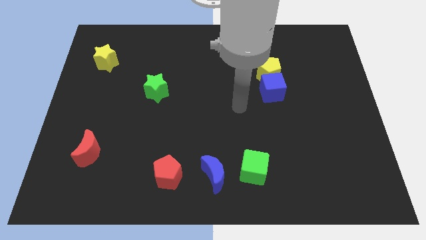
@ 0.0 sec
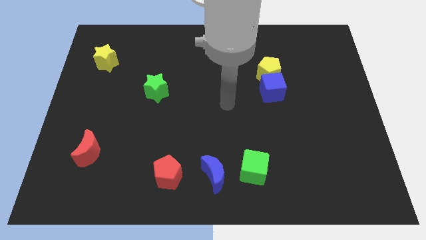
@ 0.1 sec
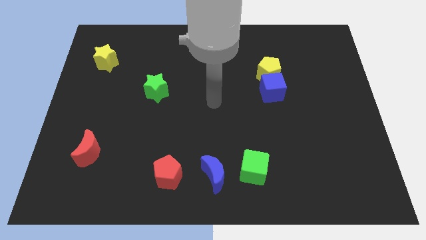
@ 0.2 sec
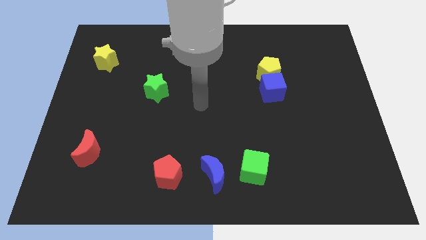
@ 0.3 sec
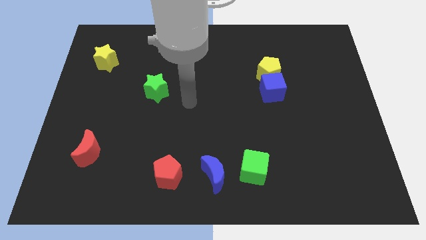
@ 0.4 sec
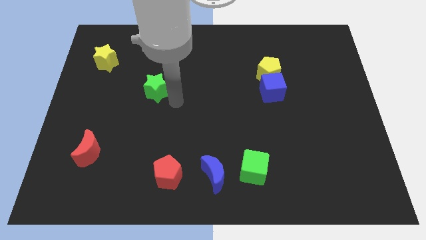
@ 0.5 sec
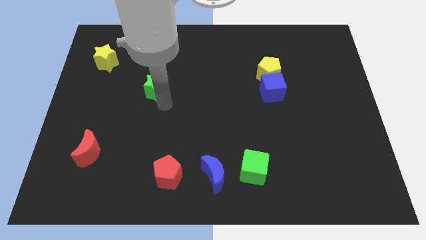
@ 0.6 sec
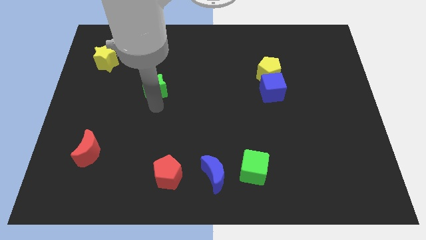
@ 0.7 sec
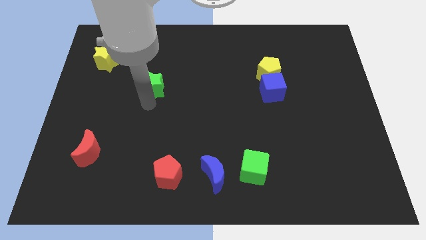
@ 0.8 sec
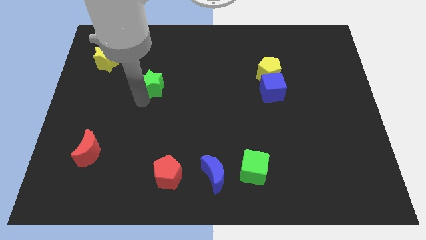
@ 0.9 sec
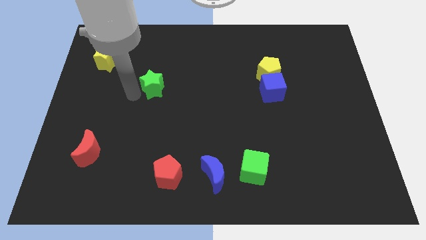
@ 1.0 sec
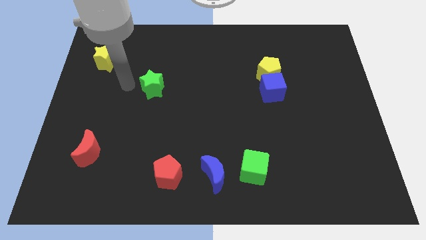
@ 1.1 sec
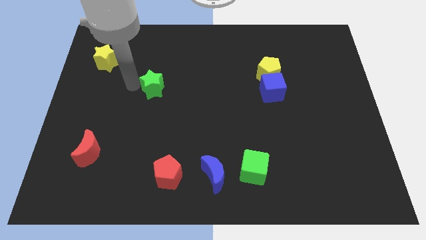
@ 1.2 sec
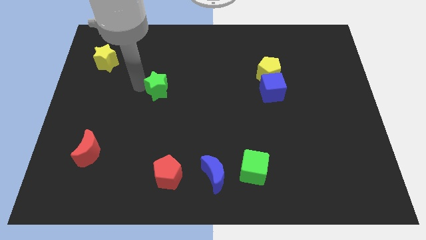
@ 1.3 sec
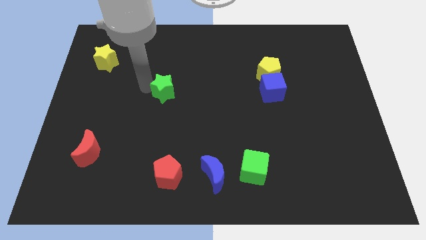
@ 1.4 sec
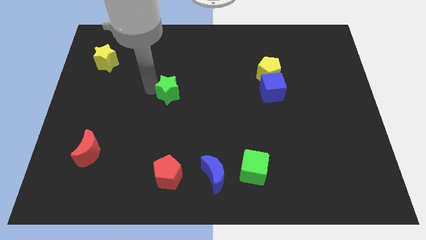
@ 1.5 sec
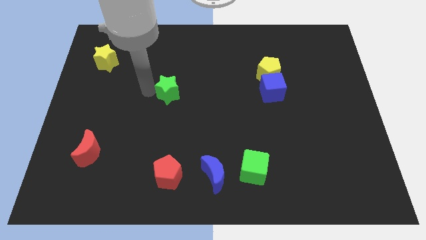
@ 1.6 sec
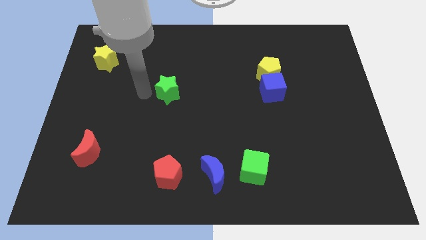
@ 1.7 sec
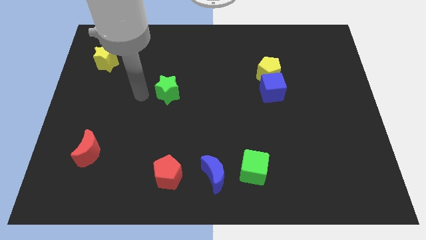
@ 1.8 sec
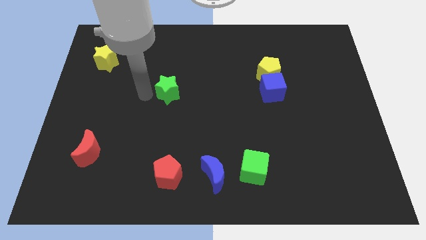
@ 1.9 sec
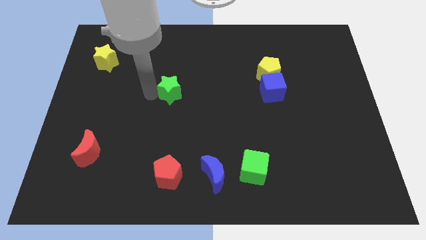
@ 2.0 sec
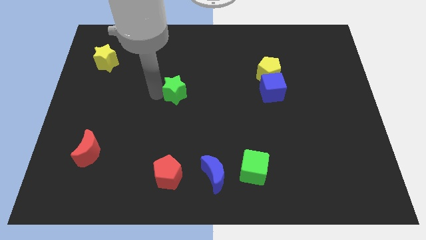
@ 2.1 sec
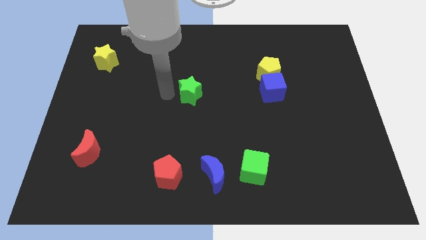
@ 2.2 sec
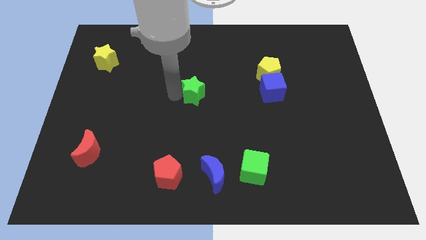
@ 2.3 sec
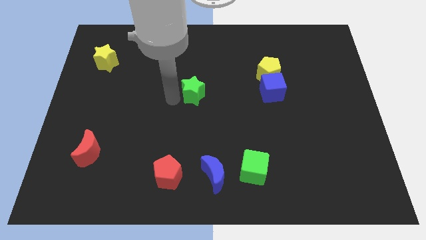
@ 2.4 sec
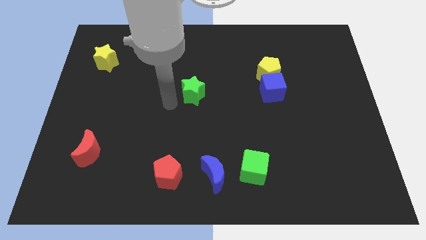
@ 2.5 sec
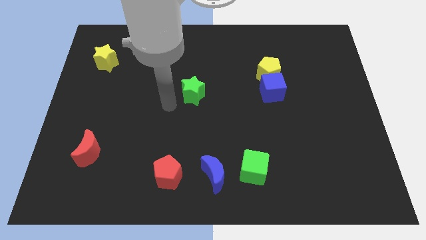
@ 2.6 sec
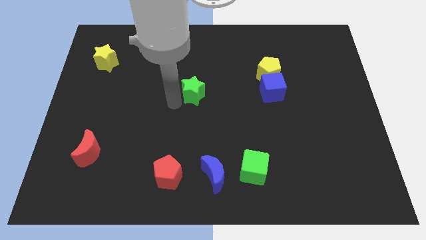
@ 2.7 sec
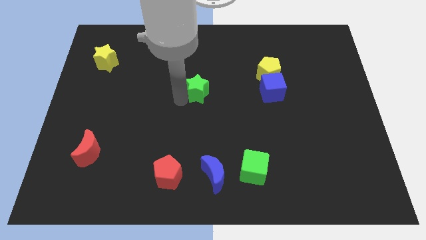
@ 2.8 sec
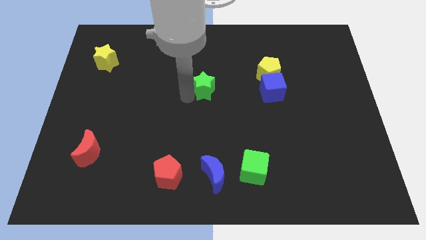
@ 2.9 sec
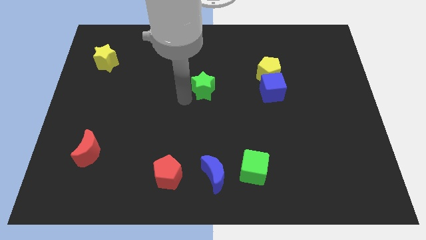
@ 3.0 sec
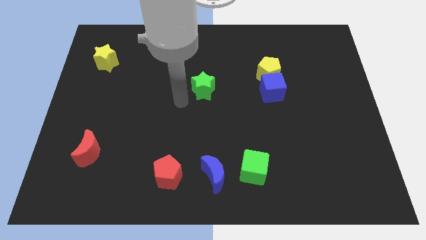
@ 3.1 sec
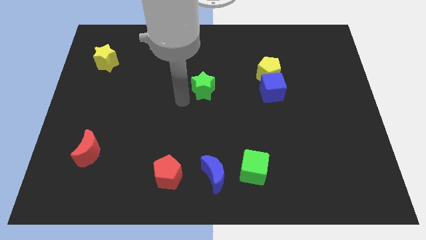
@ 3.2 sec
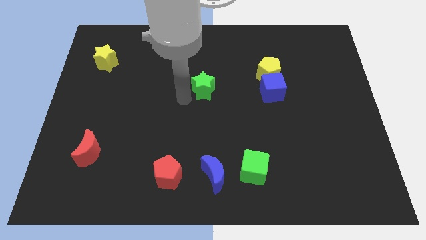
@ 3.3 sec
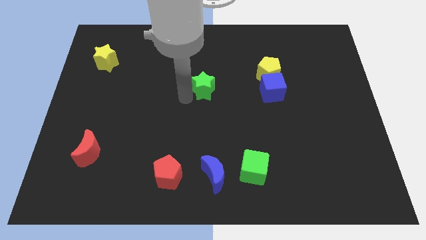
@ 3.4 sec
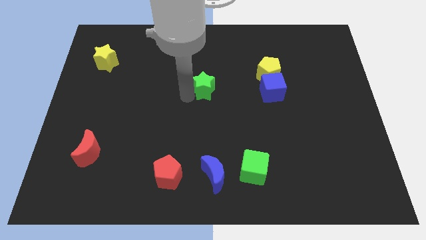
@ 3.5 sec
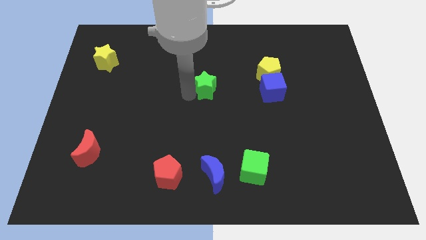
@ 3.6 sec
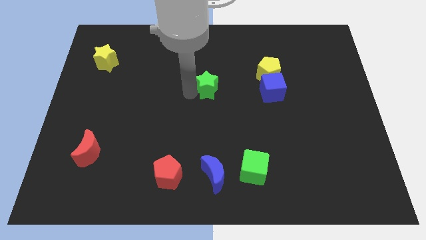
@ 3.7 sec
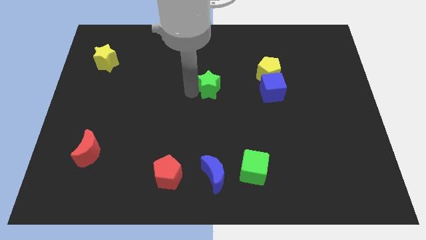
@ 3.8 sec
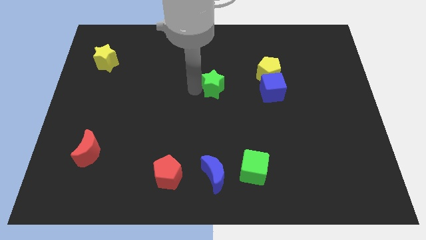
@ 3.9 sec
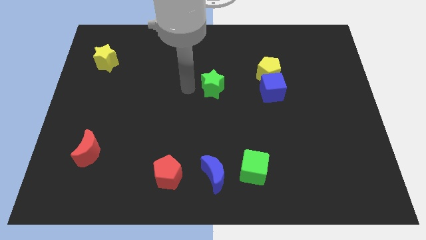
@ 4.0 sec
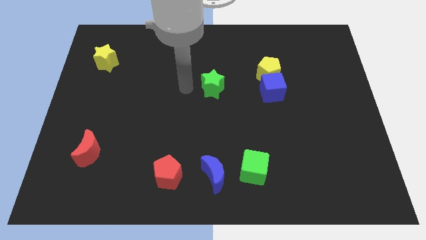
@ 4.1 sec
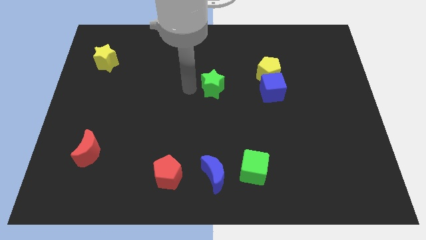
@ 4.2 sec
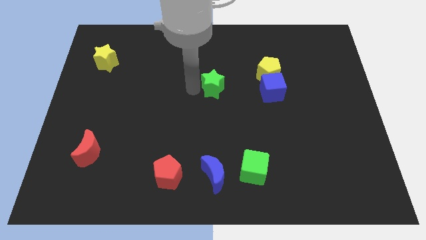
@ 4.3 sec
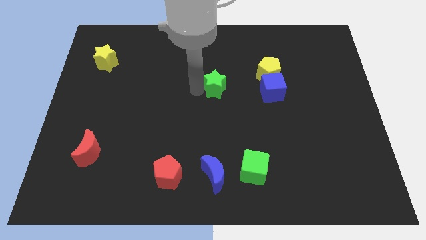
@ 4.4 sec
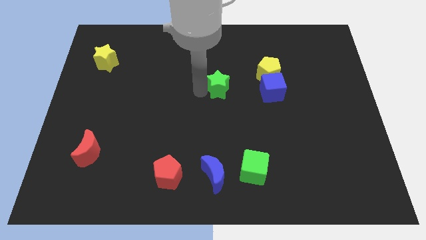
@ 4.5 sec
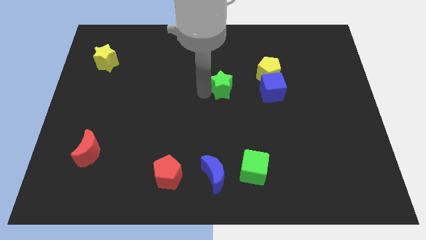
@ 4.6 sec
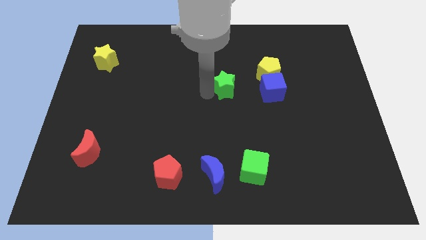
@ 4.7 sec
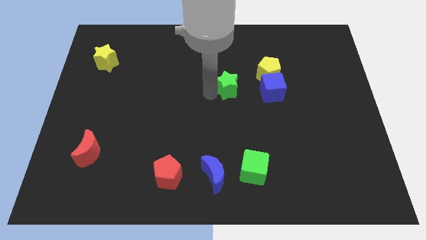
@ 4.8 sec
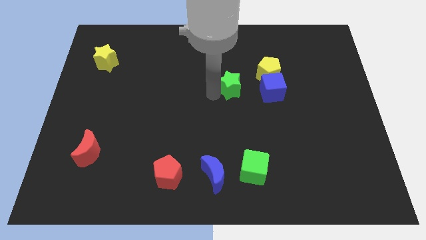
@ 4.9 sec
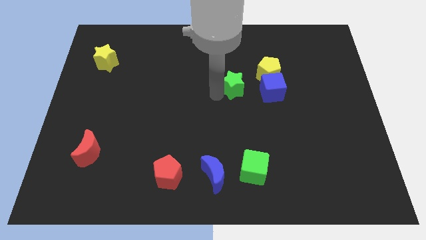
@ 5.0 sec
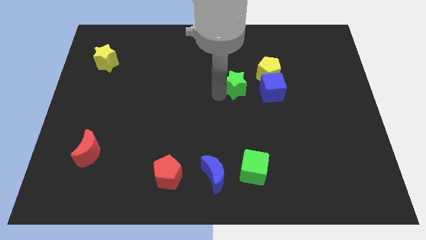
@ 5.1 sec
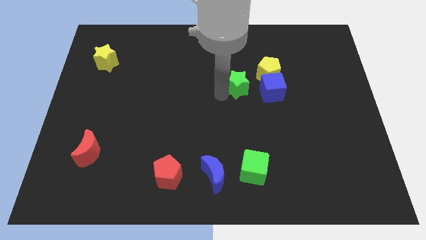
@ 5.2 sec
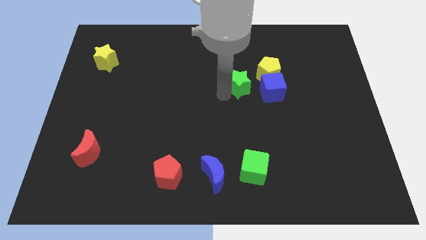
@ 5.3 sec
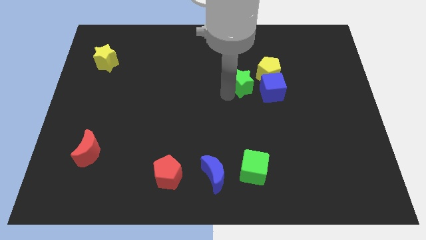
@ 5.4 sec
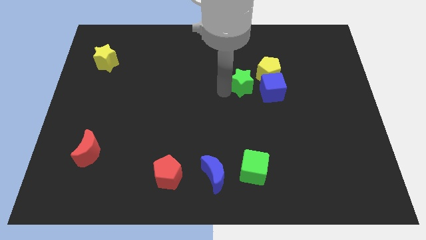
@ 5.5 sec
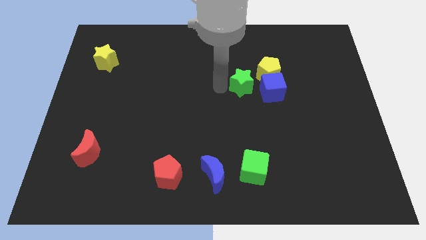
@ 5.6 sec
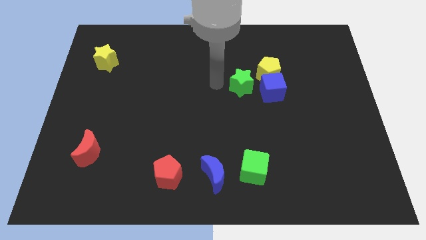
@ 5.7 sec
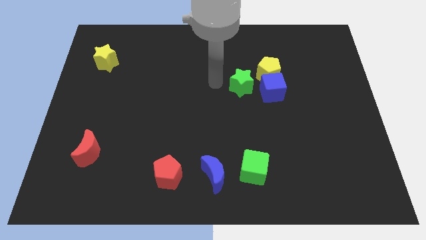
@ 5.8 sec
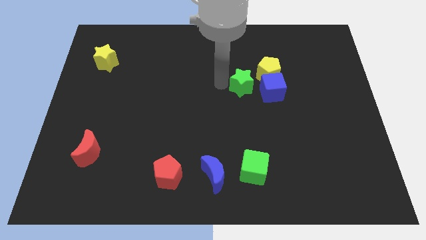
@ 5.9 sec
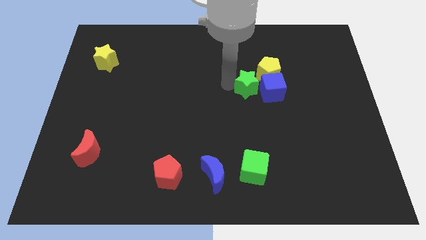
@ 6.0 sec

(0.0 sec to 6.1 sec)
move the green star close to the blue cube

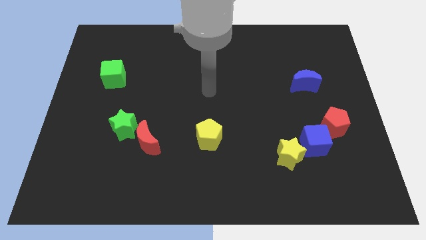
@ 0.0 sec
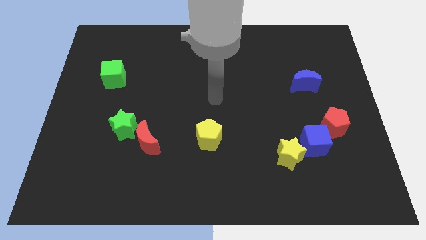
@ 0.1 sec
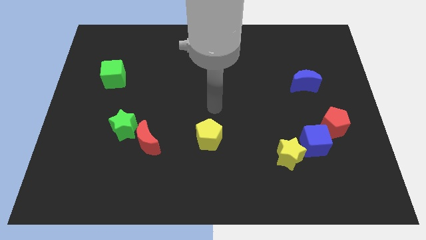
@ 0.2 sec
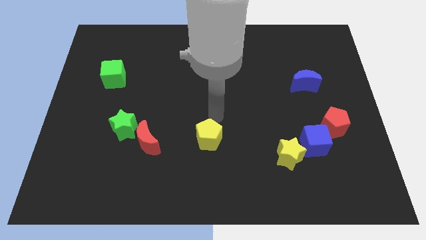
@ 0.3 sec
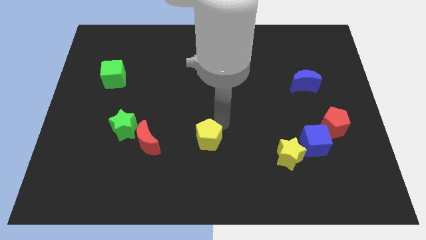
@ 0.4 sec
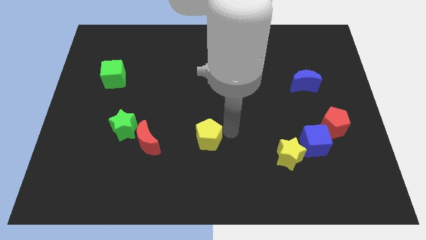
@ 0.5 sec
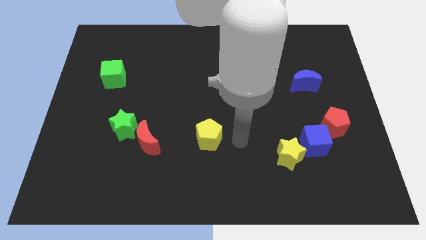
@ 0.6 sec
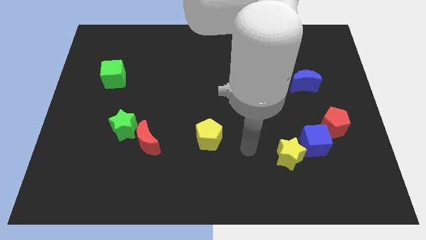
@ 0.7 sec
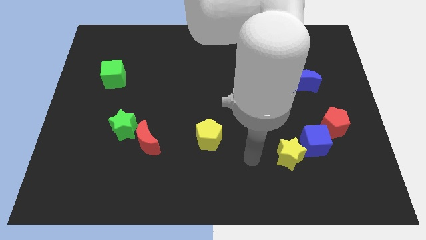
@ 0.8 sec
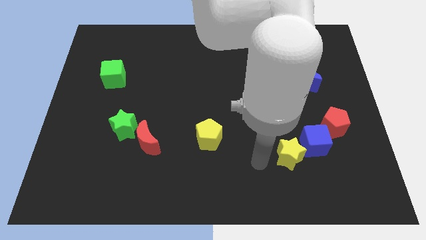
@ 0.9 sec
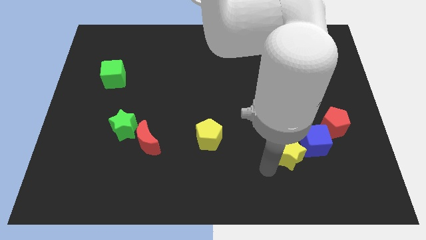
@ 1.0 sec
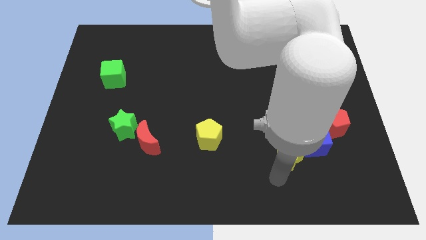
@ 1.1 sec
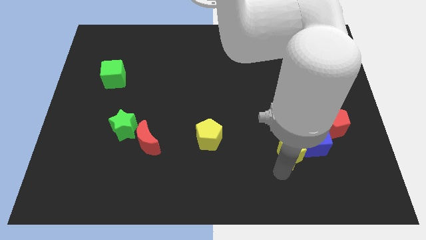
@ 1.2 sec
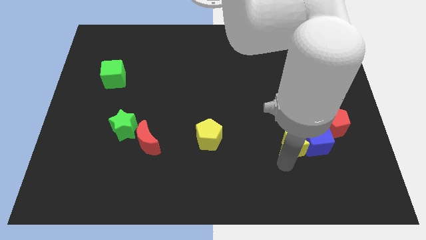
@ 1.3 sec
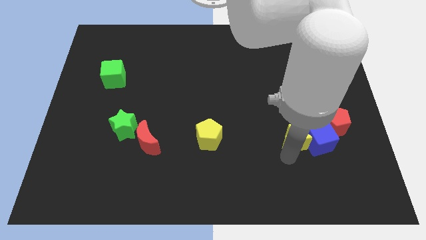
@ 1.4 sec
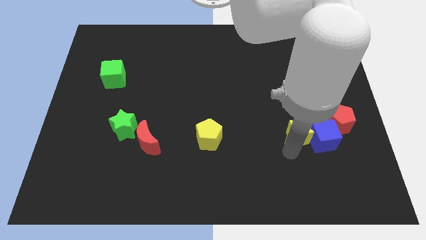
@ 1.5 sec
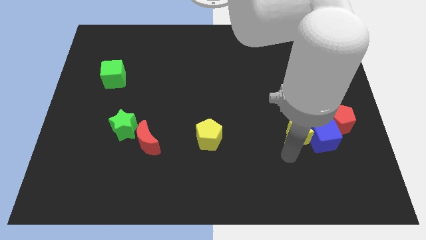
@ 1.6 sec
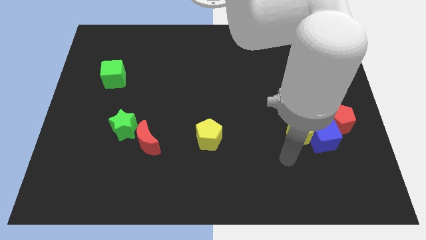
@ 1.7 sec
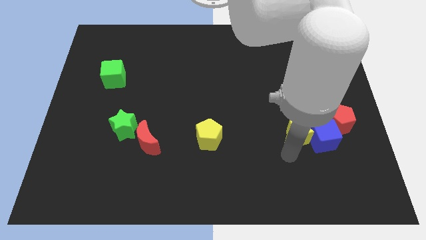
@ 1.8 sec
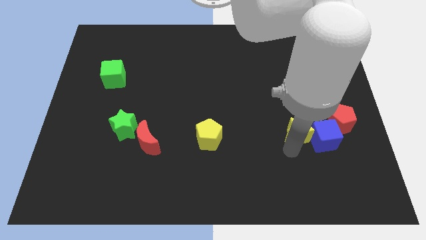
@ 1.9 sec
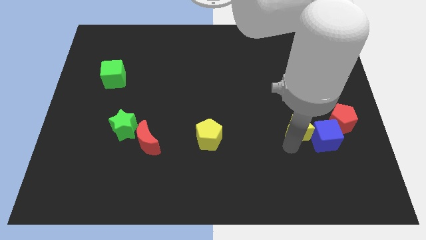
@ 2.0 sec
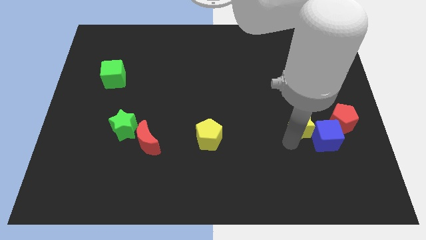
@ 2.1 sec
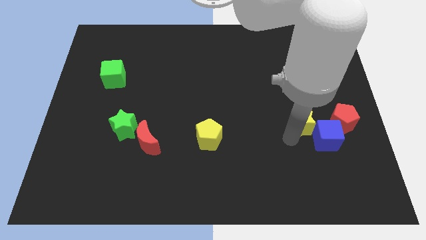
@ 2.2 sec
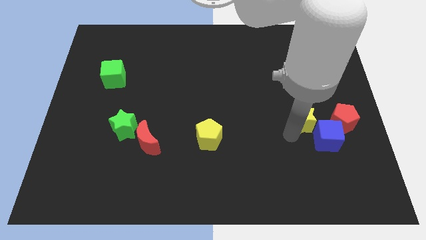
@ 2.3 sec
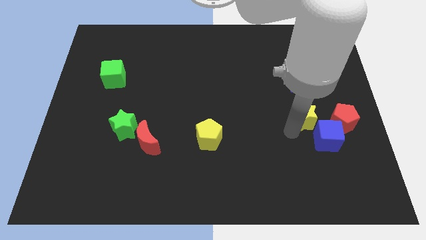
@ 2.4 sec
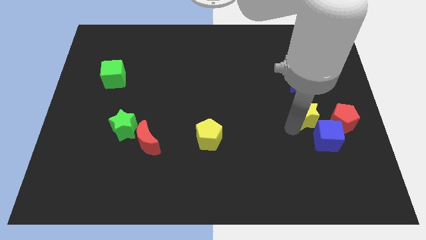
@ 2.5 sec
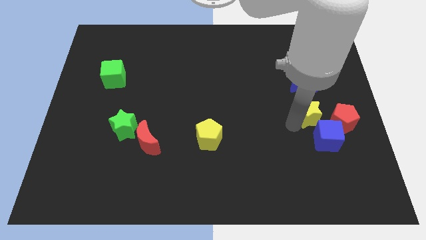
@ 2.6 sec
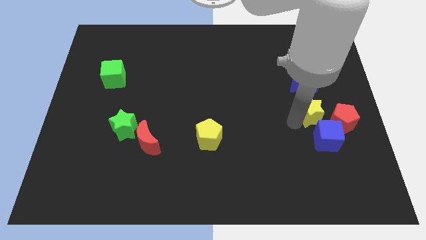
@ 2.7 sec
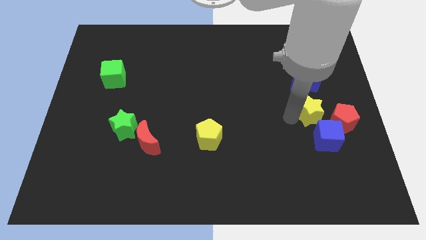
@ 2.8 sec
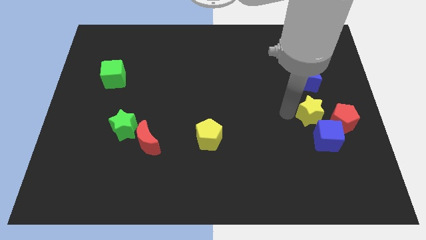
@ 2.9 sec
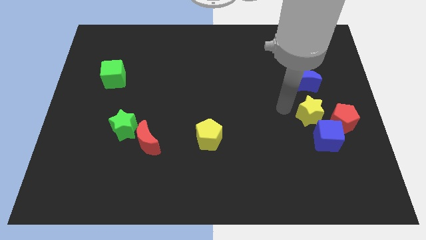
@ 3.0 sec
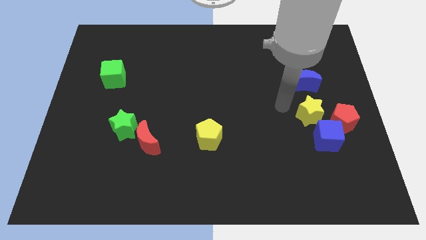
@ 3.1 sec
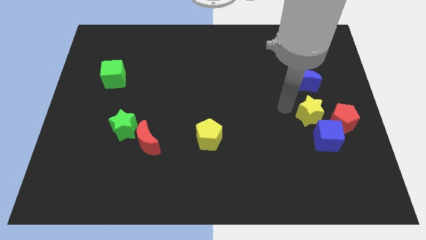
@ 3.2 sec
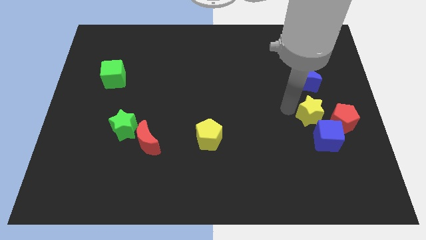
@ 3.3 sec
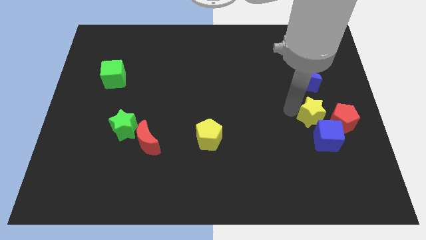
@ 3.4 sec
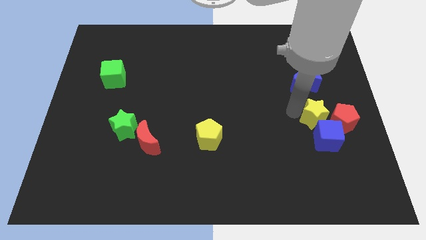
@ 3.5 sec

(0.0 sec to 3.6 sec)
push the yellow star next to the red pentagon
